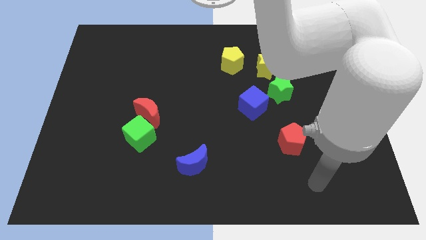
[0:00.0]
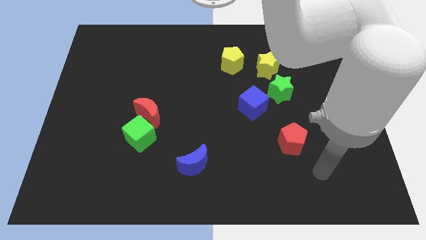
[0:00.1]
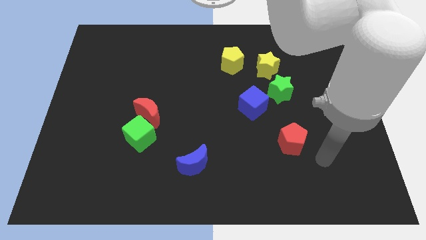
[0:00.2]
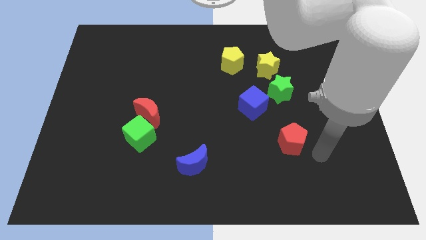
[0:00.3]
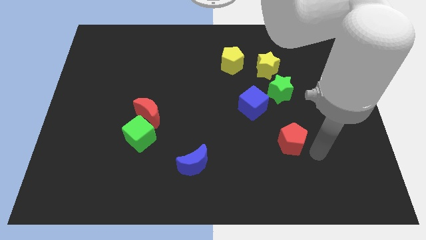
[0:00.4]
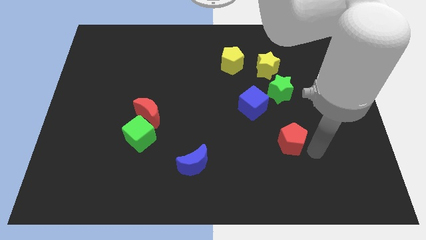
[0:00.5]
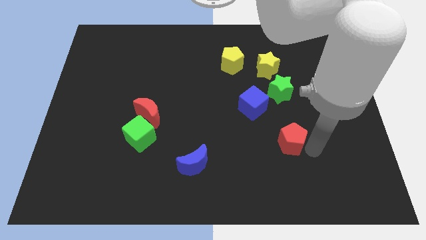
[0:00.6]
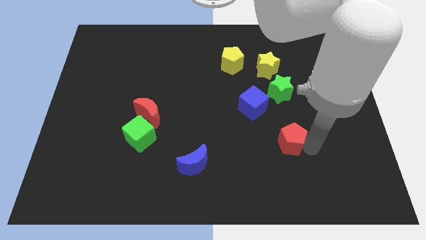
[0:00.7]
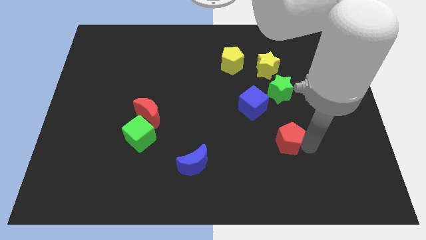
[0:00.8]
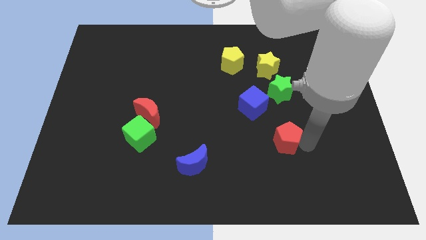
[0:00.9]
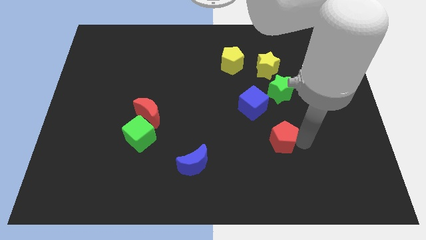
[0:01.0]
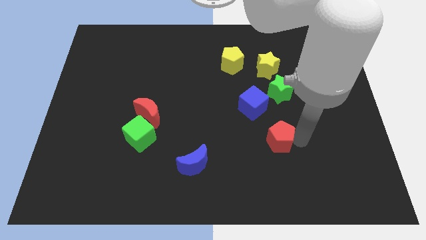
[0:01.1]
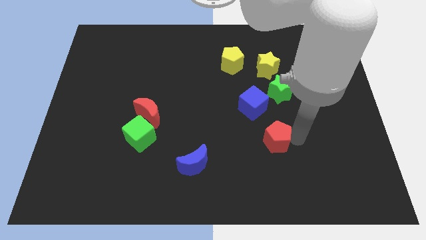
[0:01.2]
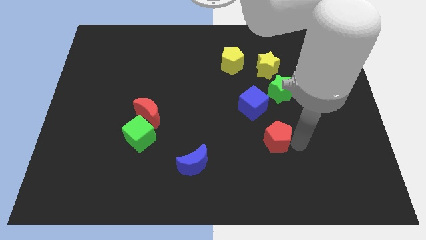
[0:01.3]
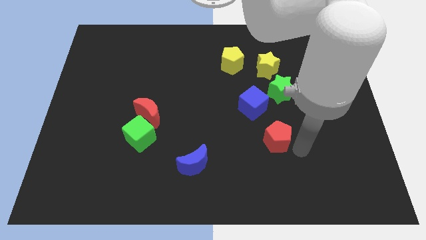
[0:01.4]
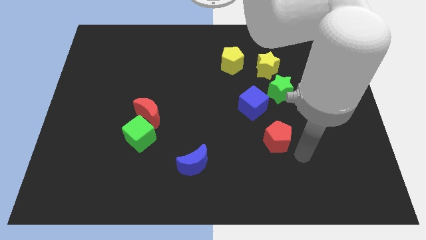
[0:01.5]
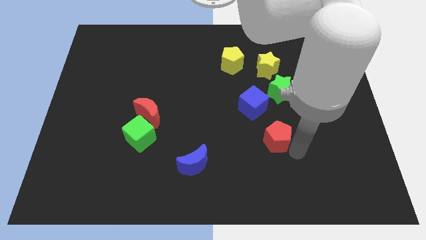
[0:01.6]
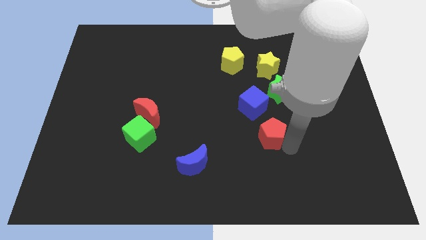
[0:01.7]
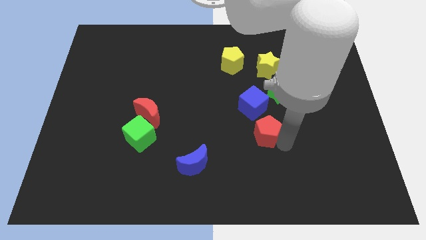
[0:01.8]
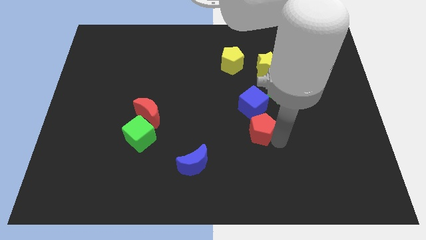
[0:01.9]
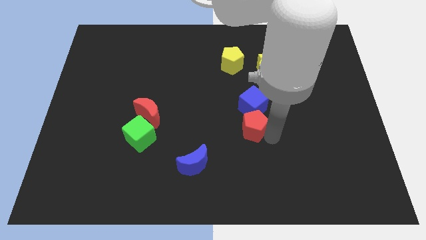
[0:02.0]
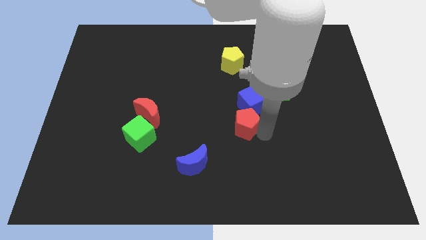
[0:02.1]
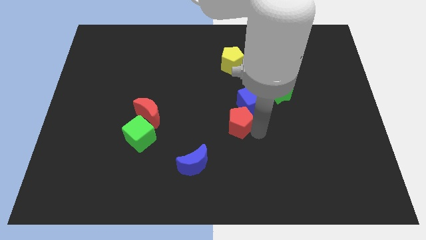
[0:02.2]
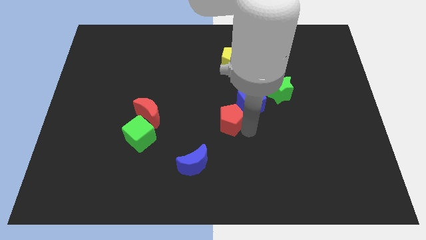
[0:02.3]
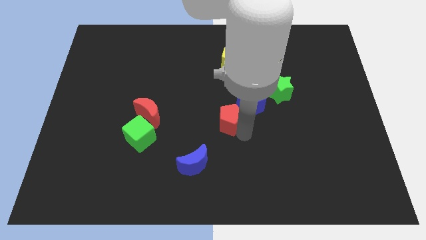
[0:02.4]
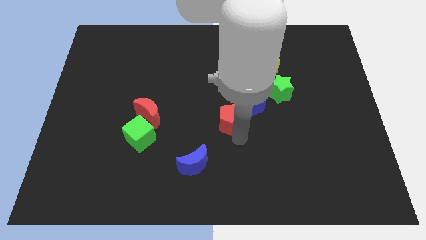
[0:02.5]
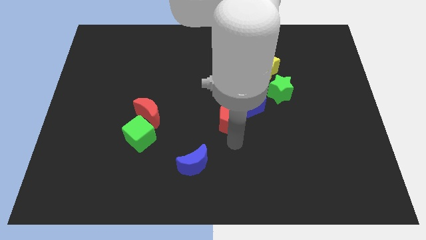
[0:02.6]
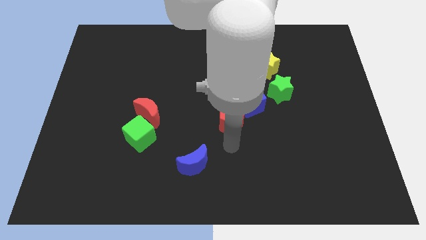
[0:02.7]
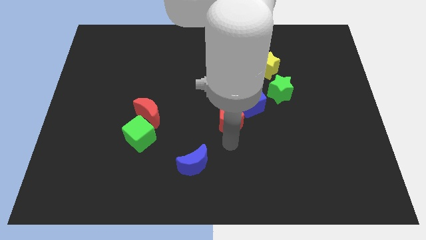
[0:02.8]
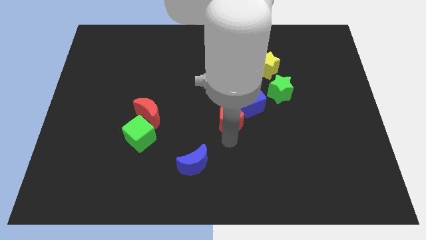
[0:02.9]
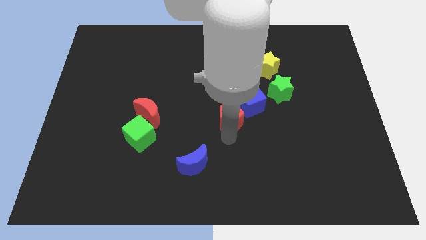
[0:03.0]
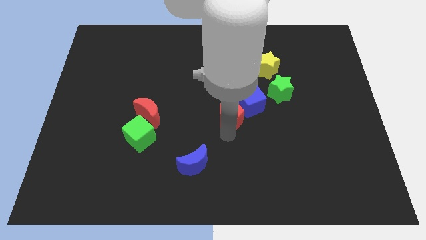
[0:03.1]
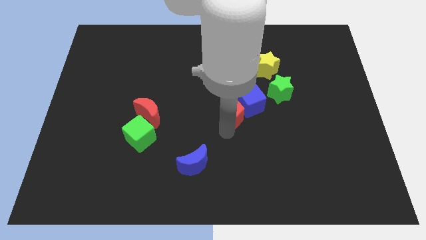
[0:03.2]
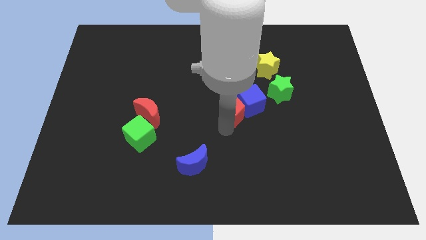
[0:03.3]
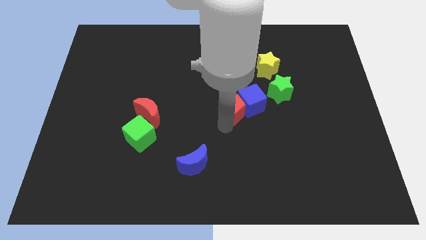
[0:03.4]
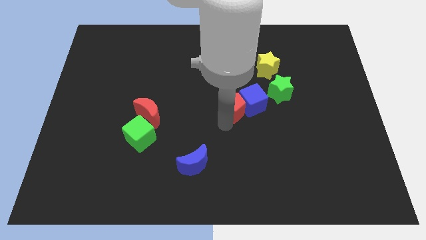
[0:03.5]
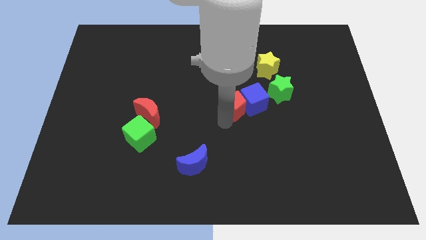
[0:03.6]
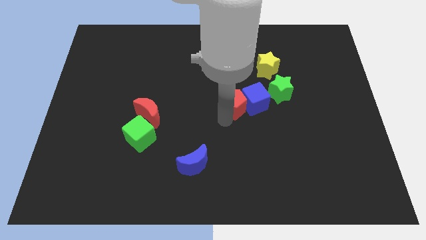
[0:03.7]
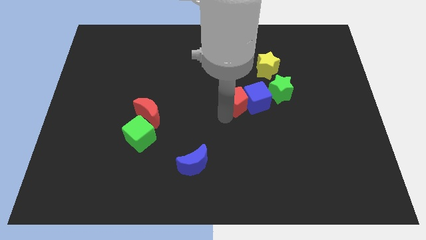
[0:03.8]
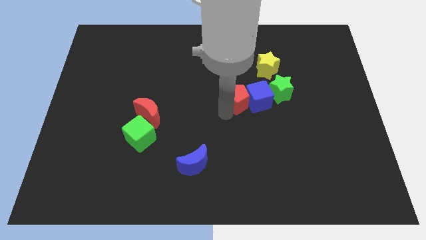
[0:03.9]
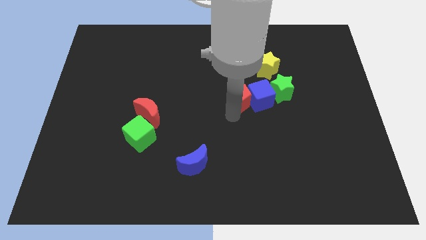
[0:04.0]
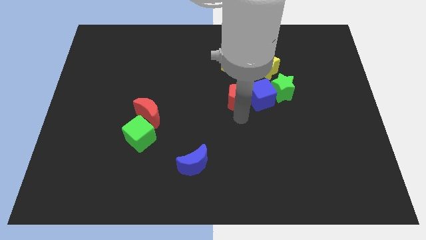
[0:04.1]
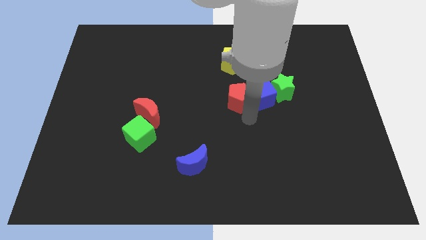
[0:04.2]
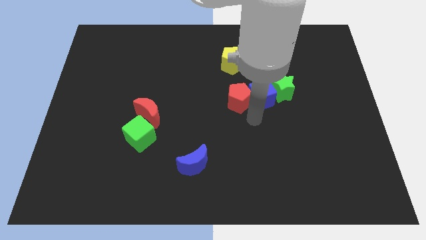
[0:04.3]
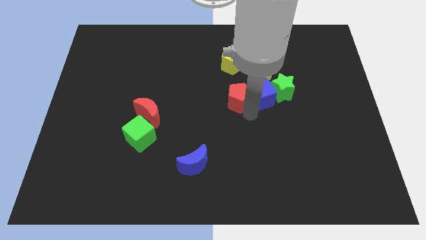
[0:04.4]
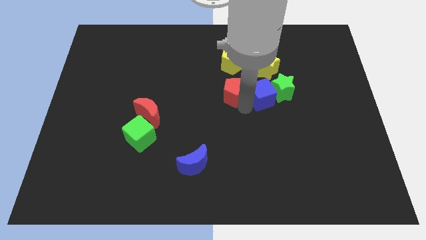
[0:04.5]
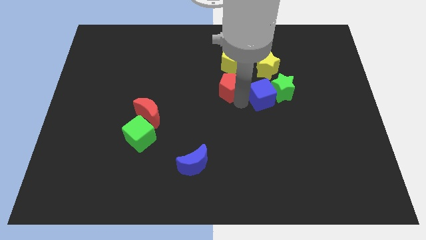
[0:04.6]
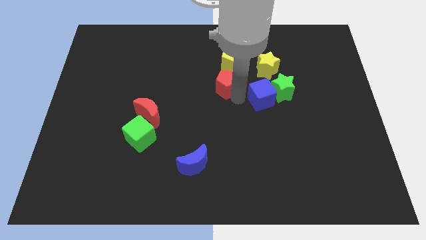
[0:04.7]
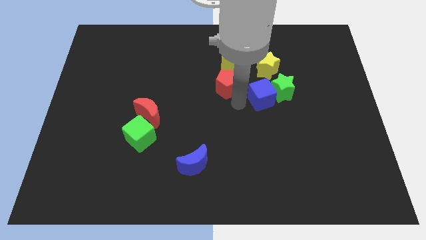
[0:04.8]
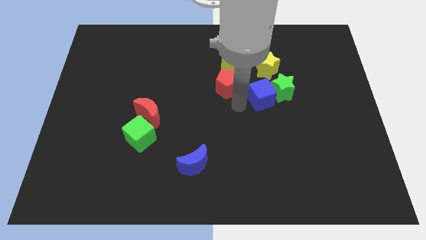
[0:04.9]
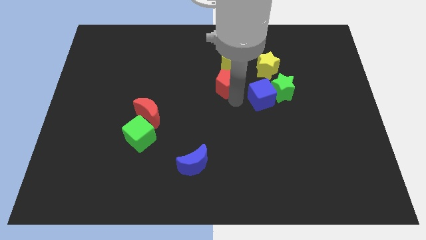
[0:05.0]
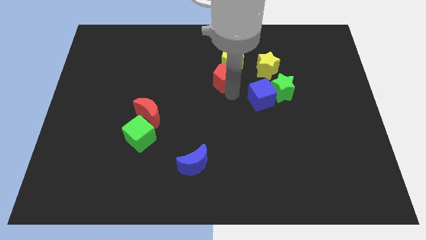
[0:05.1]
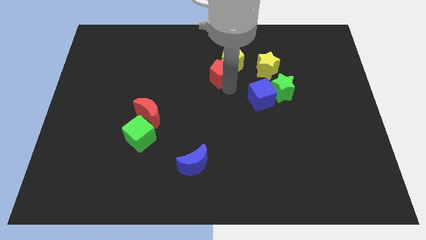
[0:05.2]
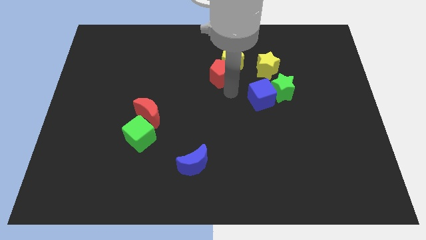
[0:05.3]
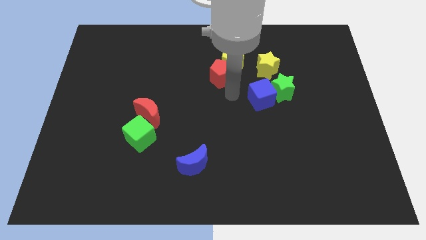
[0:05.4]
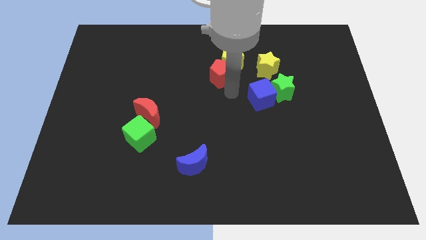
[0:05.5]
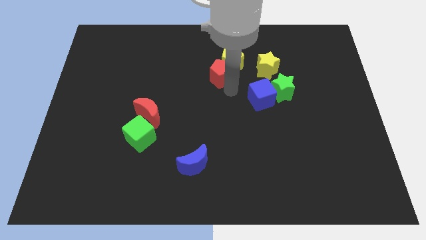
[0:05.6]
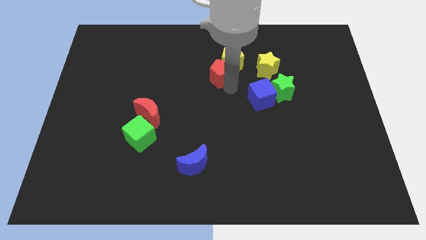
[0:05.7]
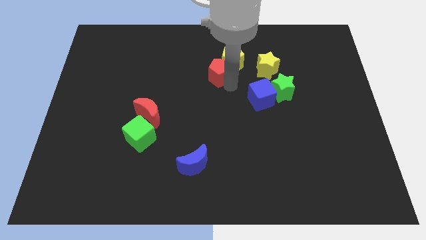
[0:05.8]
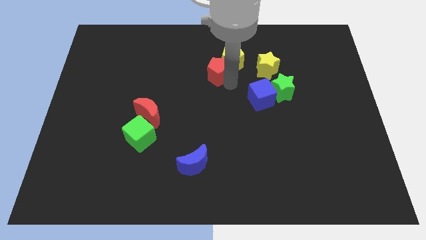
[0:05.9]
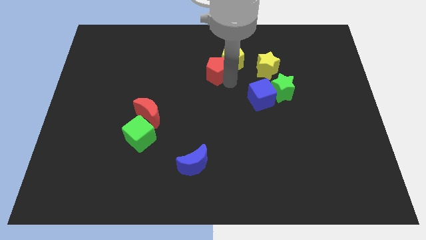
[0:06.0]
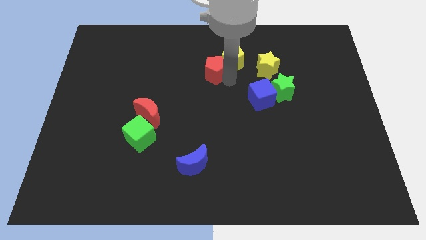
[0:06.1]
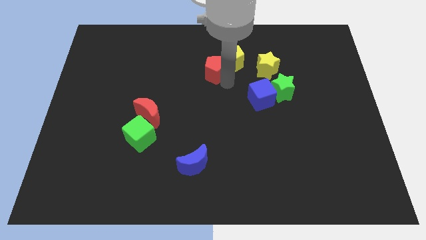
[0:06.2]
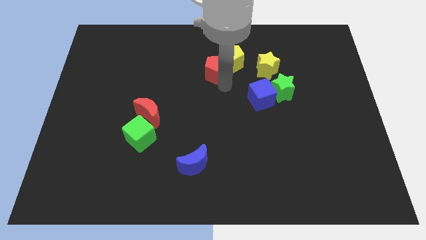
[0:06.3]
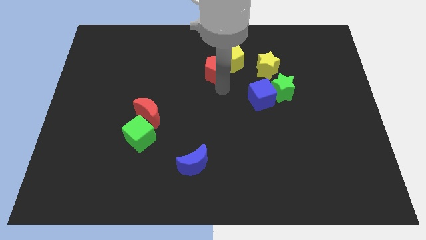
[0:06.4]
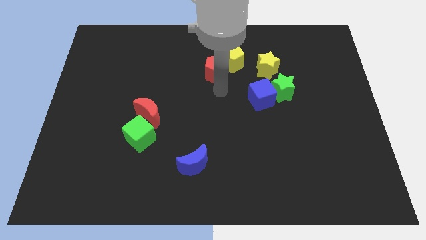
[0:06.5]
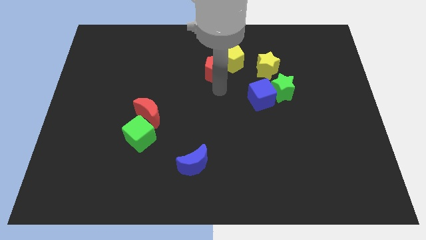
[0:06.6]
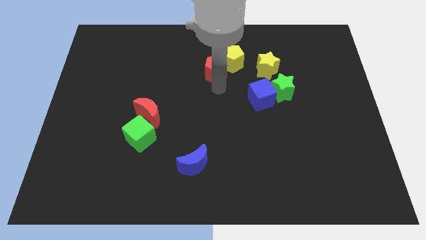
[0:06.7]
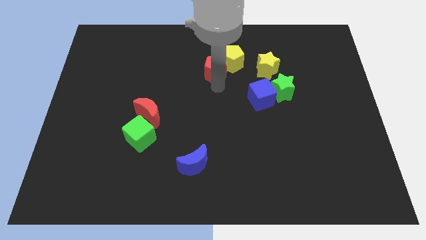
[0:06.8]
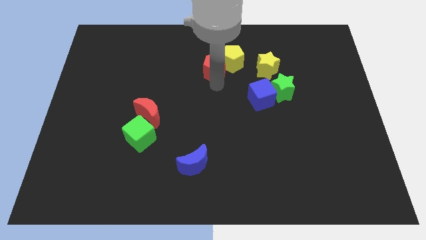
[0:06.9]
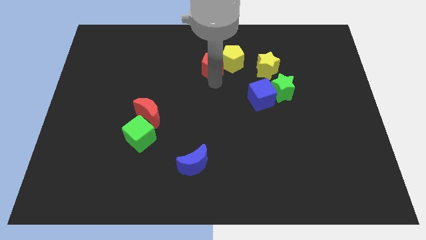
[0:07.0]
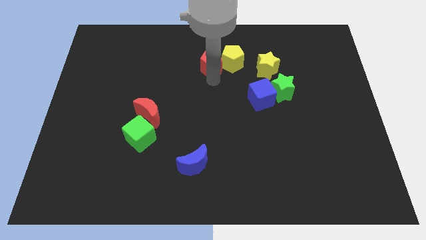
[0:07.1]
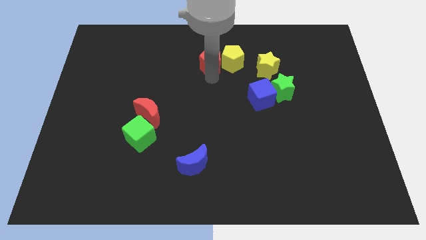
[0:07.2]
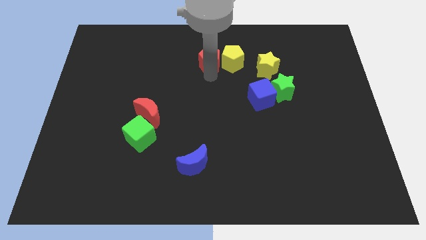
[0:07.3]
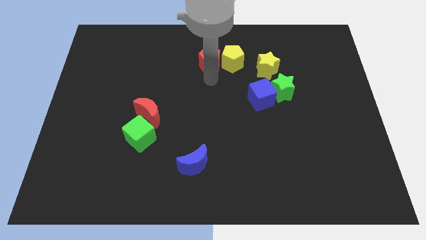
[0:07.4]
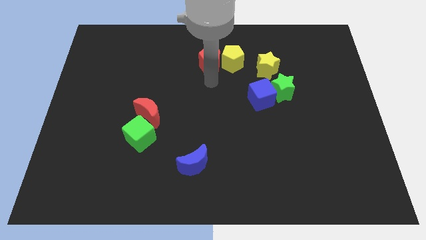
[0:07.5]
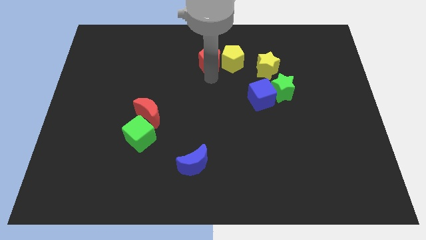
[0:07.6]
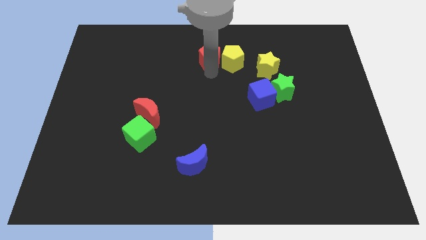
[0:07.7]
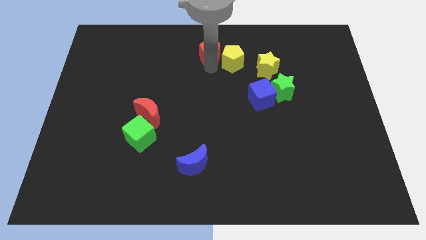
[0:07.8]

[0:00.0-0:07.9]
push the red pentagon to the top

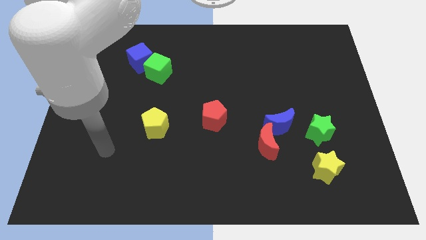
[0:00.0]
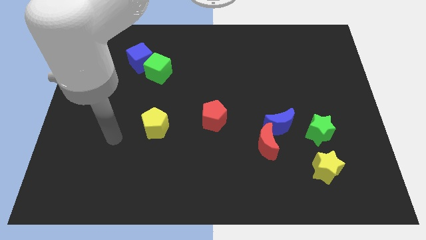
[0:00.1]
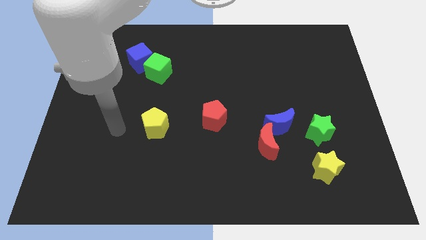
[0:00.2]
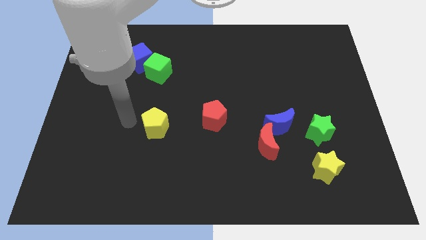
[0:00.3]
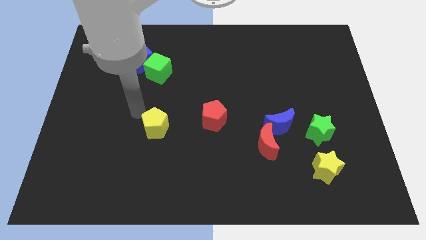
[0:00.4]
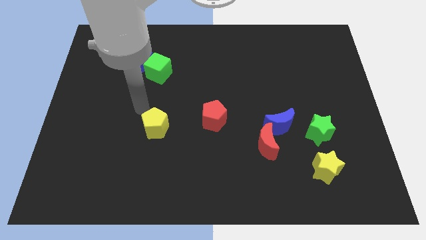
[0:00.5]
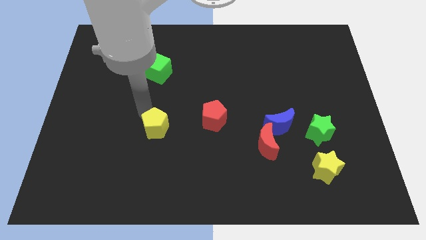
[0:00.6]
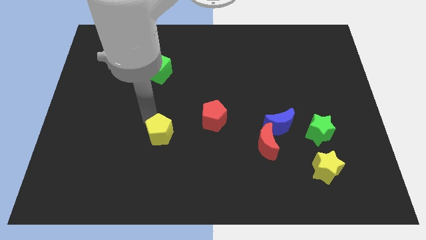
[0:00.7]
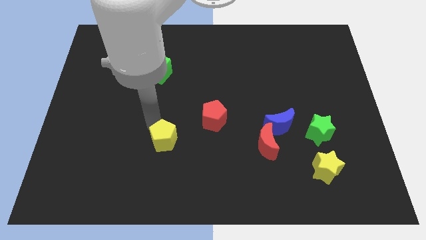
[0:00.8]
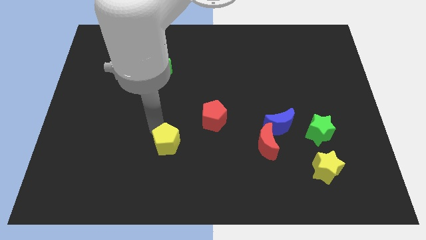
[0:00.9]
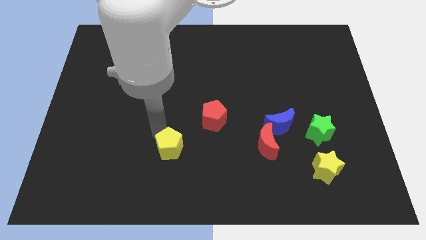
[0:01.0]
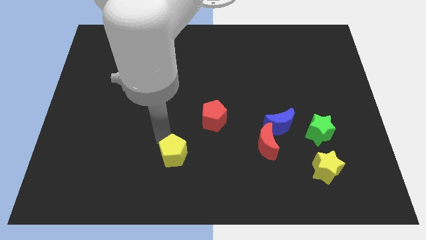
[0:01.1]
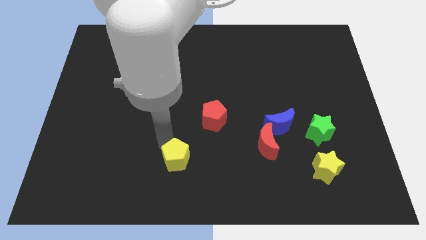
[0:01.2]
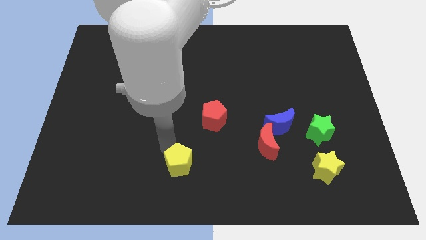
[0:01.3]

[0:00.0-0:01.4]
move the yellow pentagon to the bottom side
